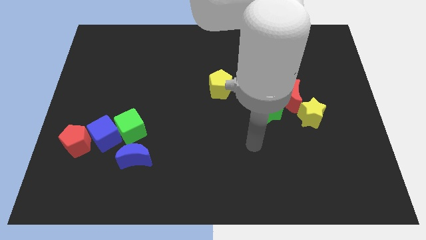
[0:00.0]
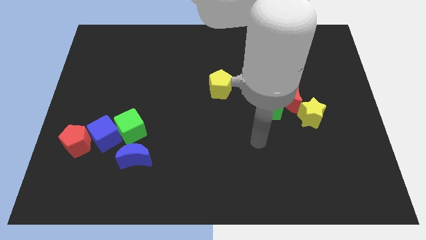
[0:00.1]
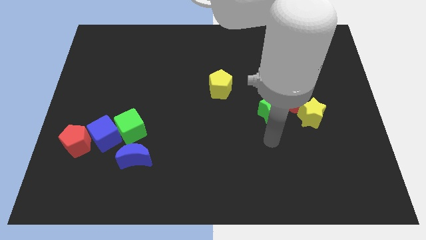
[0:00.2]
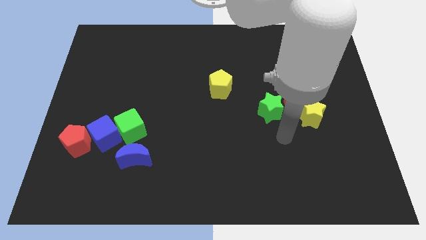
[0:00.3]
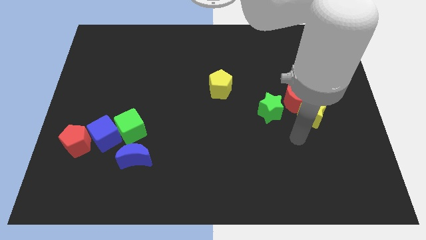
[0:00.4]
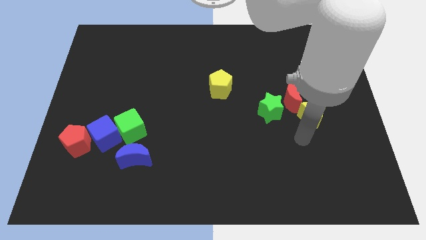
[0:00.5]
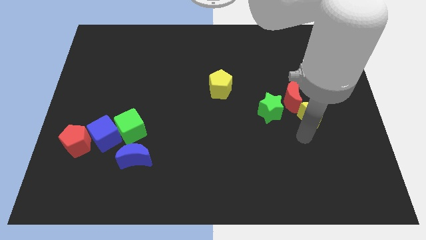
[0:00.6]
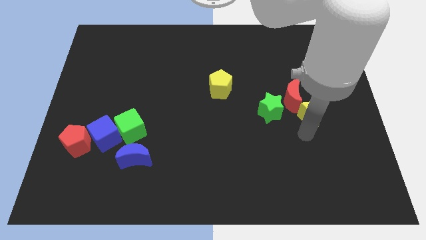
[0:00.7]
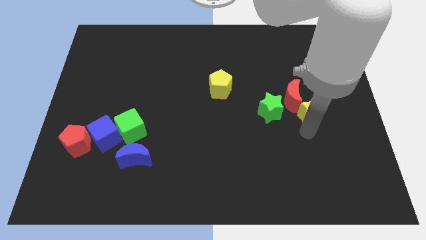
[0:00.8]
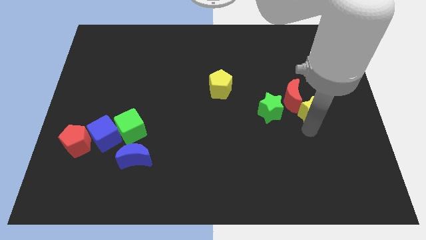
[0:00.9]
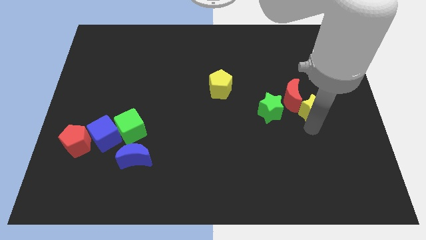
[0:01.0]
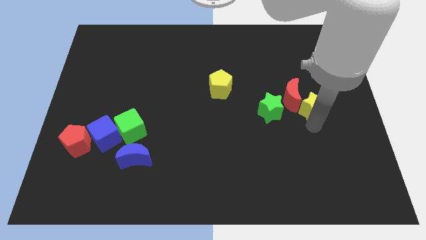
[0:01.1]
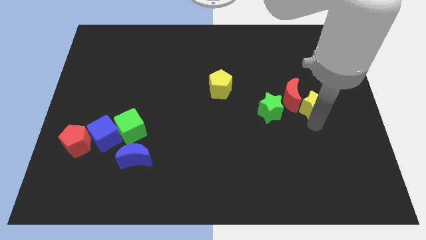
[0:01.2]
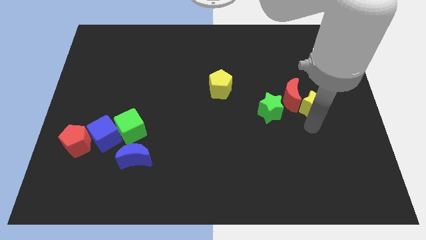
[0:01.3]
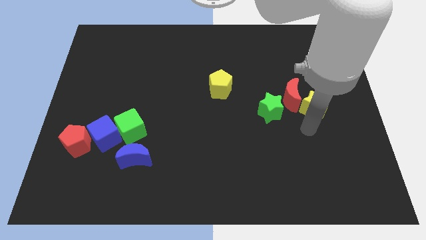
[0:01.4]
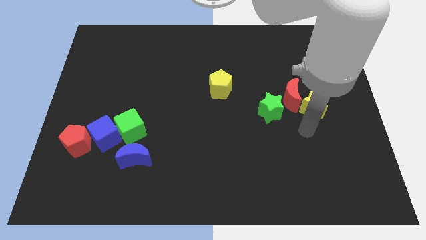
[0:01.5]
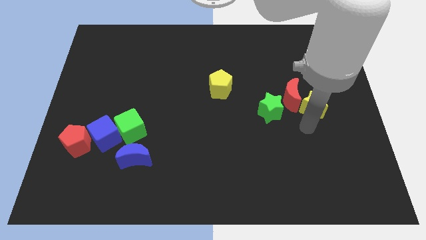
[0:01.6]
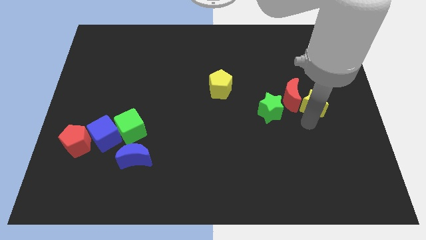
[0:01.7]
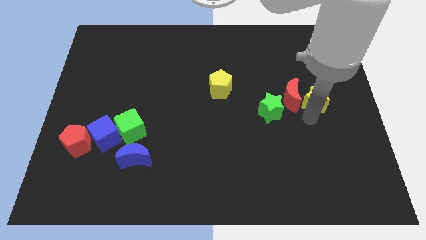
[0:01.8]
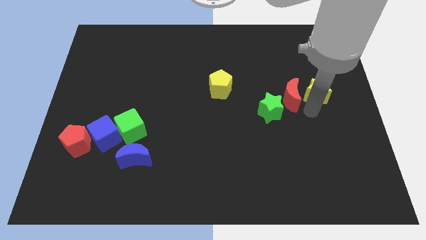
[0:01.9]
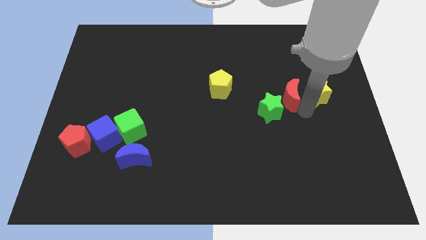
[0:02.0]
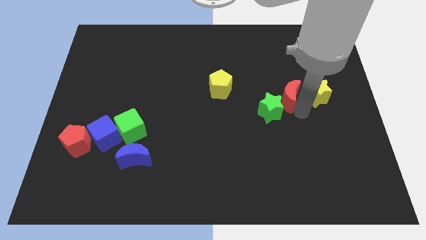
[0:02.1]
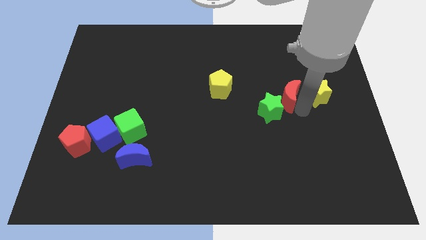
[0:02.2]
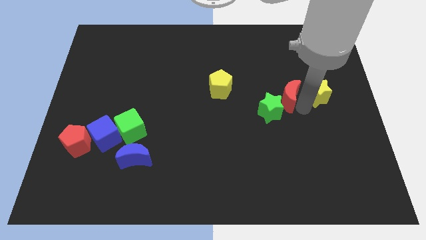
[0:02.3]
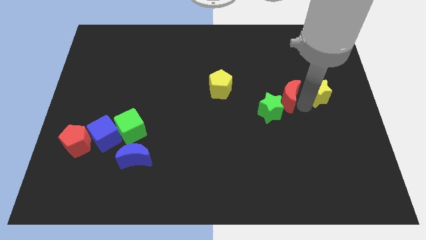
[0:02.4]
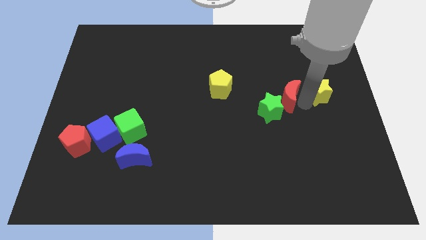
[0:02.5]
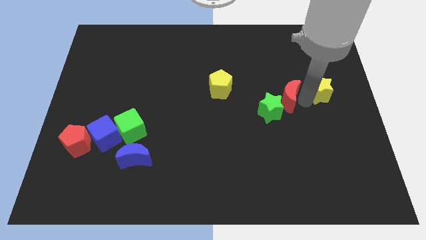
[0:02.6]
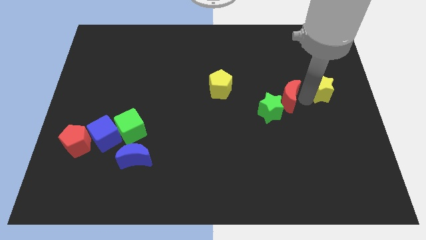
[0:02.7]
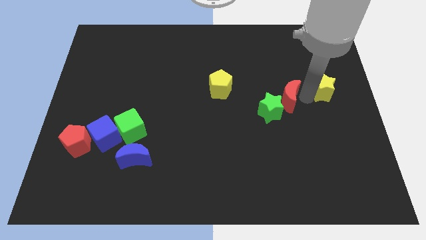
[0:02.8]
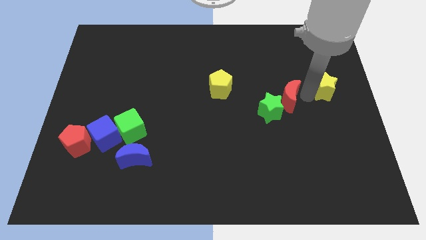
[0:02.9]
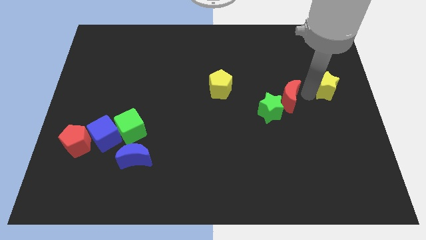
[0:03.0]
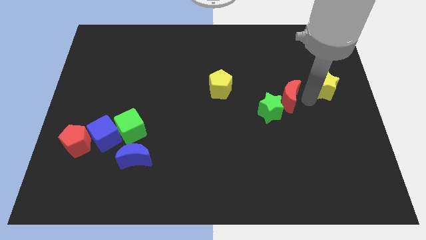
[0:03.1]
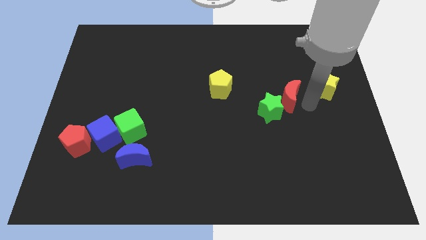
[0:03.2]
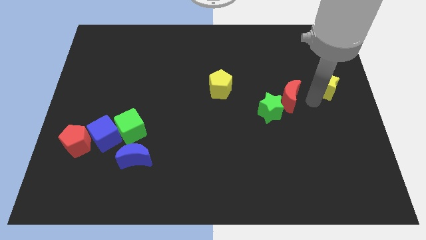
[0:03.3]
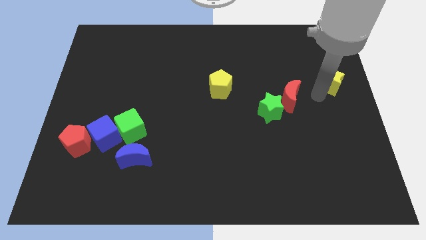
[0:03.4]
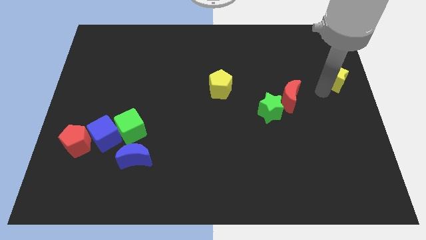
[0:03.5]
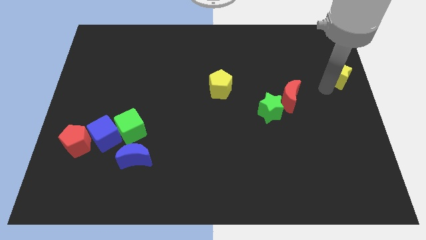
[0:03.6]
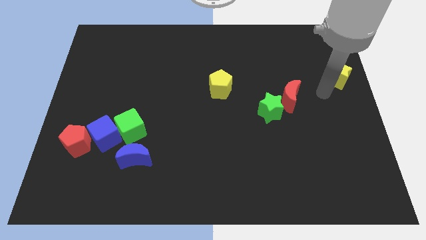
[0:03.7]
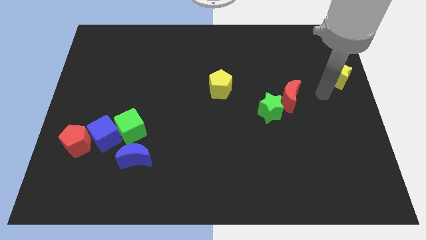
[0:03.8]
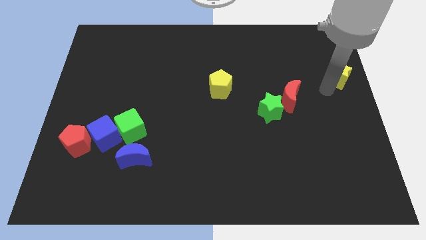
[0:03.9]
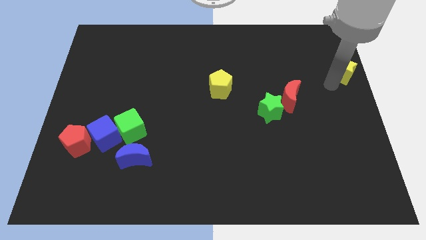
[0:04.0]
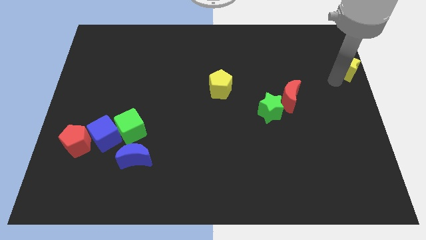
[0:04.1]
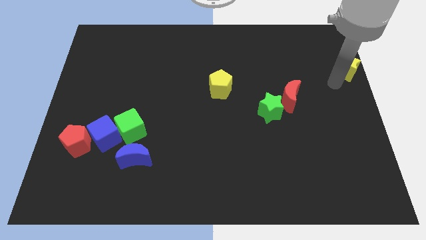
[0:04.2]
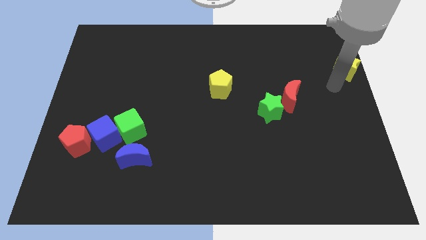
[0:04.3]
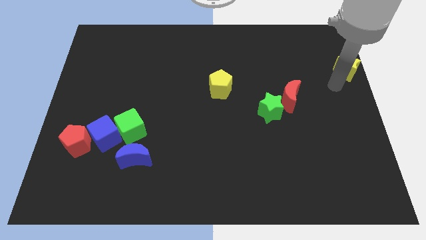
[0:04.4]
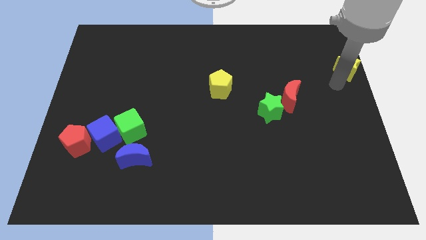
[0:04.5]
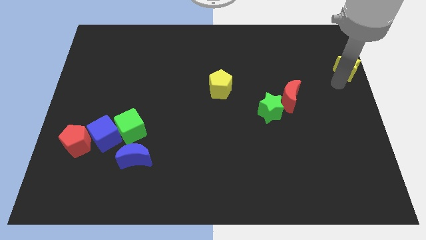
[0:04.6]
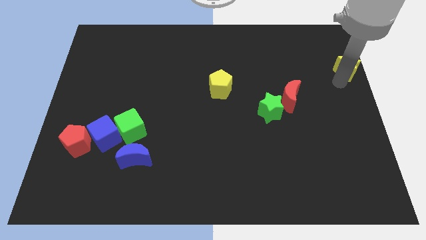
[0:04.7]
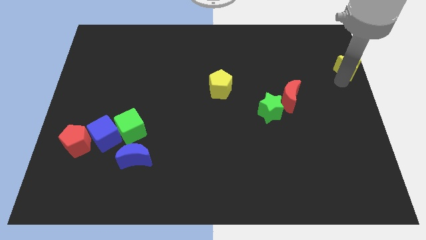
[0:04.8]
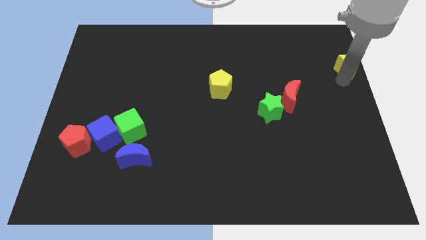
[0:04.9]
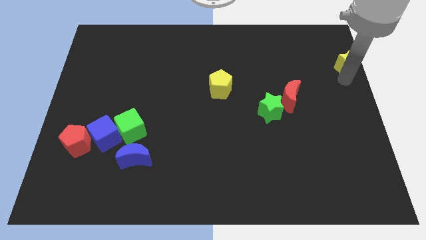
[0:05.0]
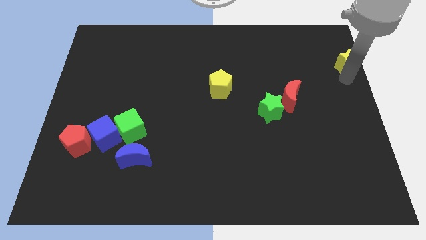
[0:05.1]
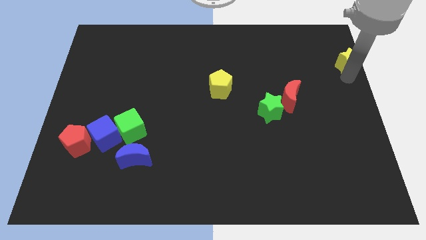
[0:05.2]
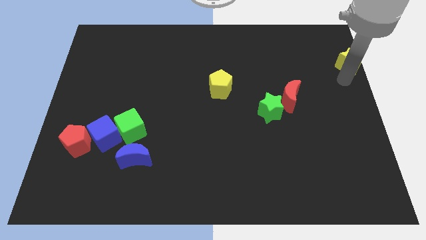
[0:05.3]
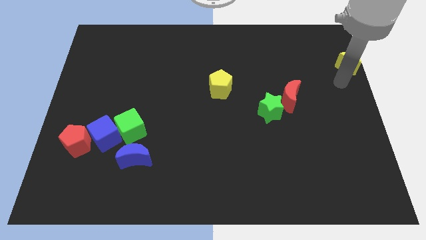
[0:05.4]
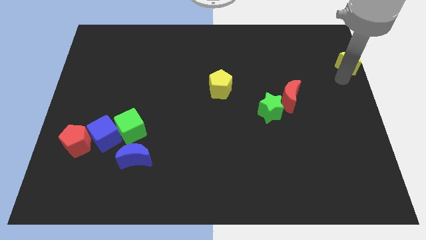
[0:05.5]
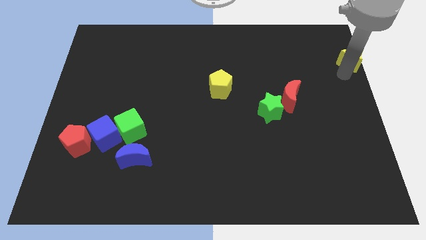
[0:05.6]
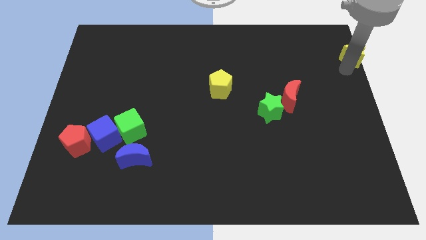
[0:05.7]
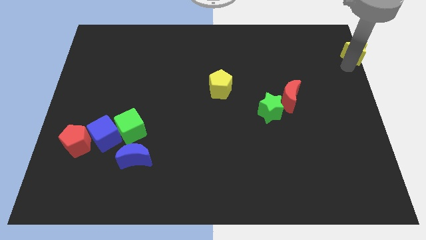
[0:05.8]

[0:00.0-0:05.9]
move the yellow star to the top right

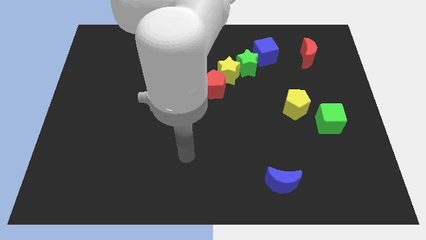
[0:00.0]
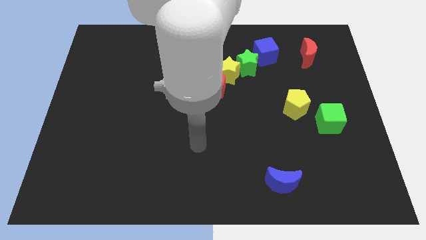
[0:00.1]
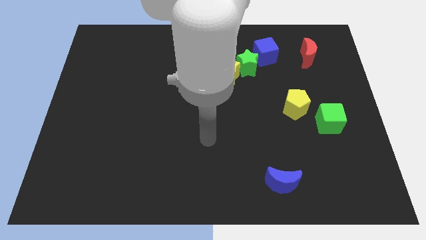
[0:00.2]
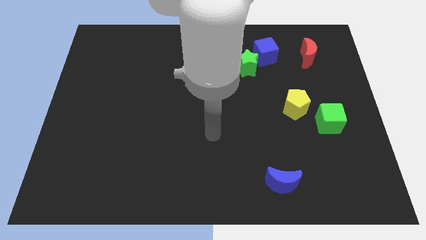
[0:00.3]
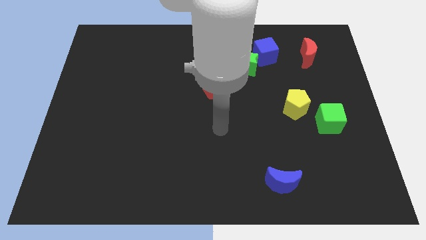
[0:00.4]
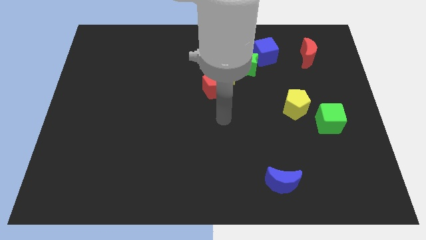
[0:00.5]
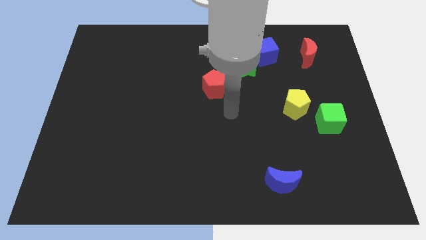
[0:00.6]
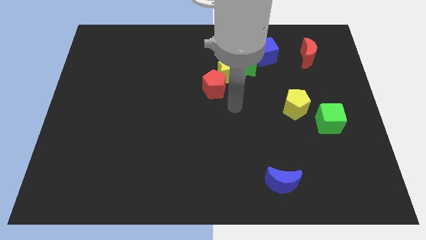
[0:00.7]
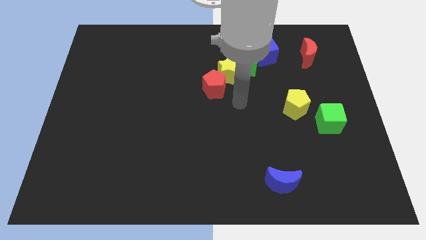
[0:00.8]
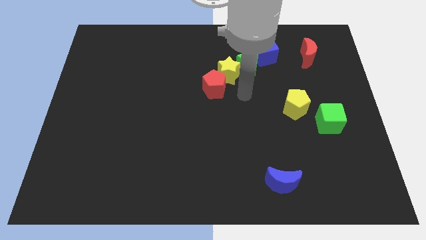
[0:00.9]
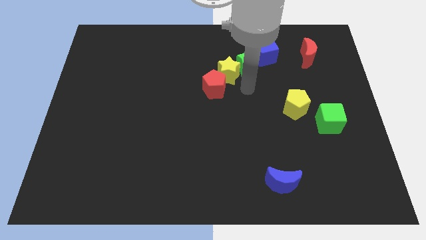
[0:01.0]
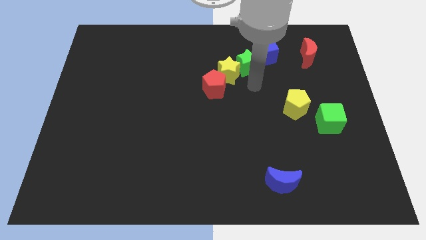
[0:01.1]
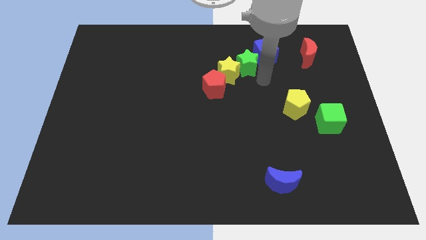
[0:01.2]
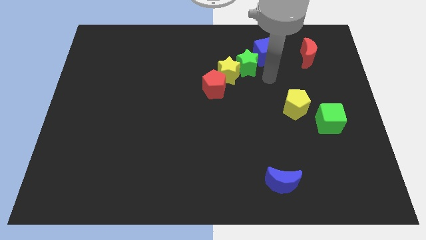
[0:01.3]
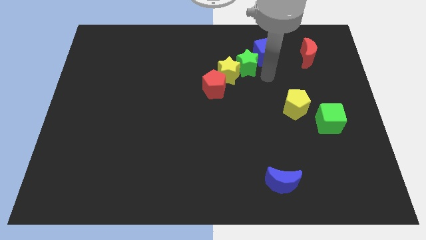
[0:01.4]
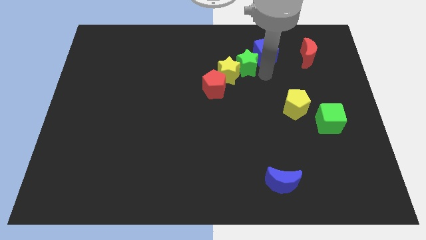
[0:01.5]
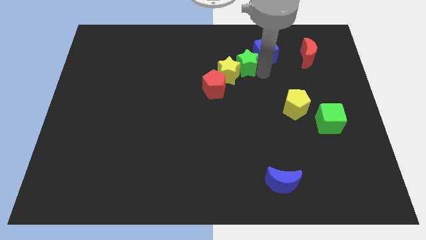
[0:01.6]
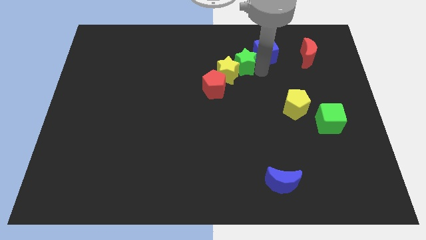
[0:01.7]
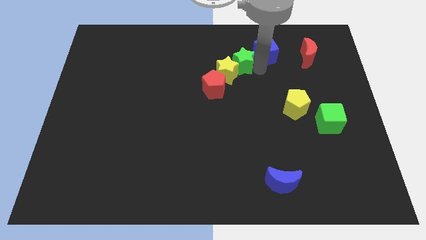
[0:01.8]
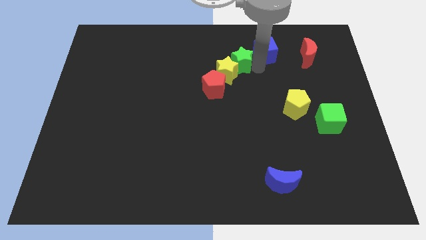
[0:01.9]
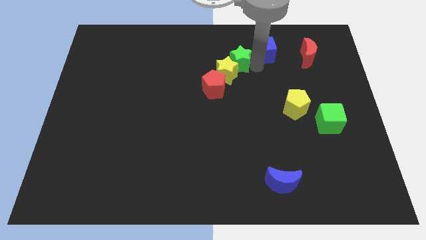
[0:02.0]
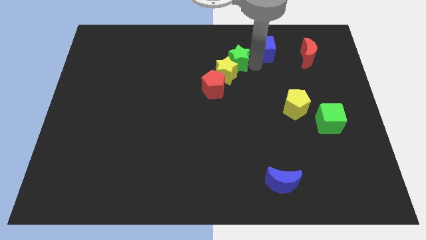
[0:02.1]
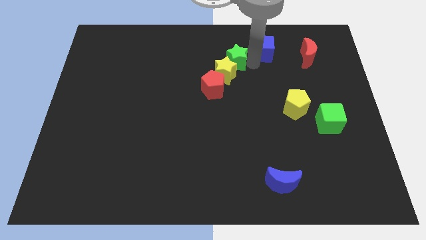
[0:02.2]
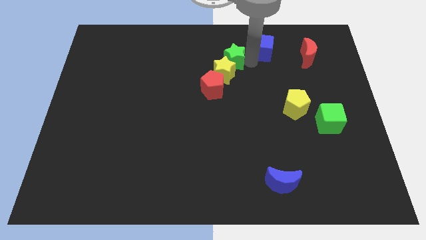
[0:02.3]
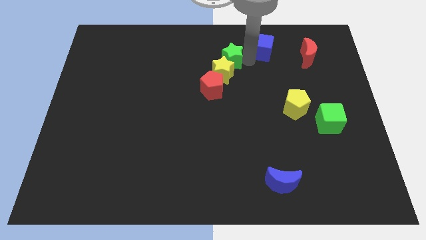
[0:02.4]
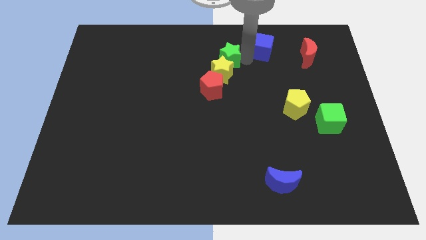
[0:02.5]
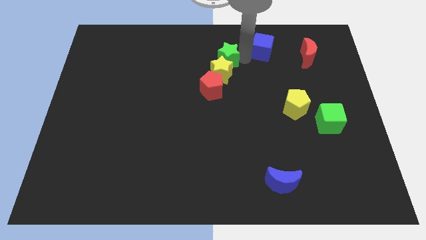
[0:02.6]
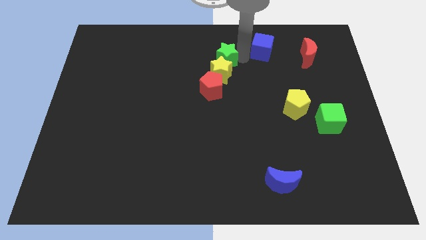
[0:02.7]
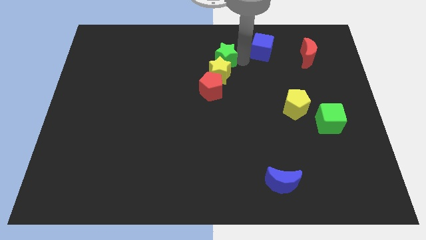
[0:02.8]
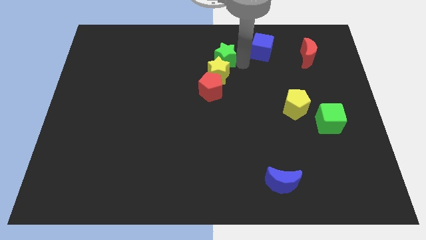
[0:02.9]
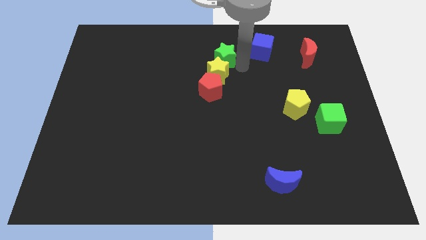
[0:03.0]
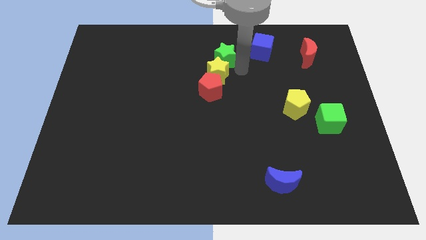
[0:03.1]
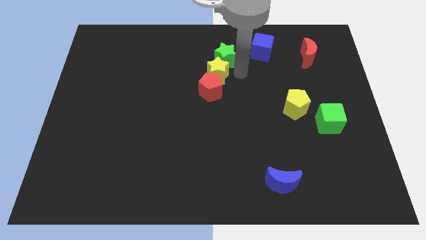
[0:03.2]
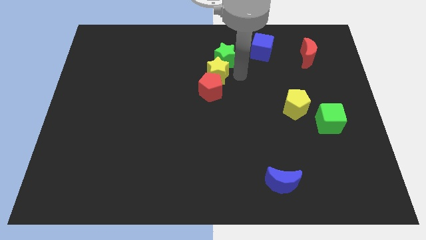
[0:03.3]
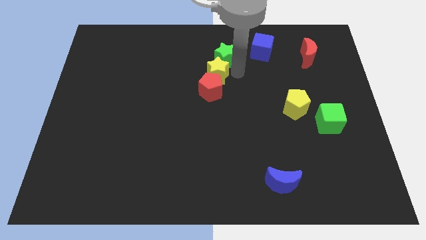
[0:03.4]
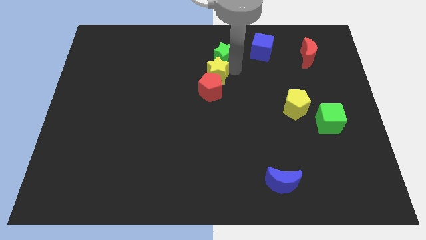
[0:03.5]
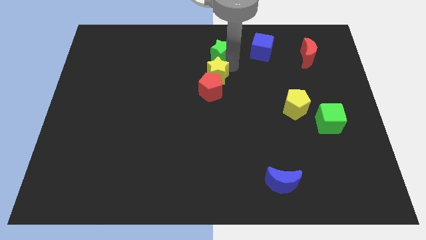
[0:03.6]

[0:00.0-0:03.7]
put the green star to the towards your base
